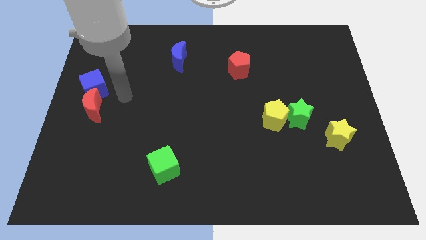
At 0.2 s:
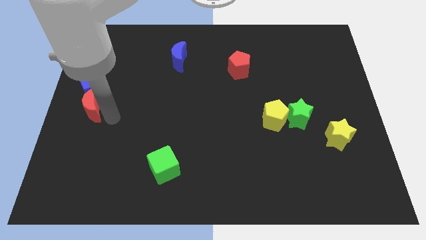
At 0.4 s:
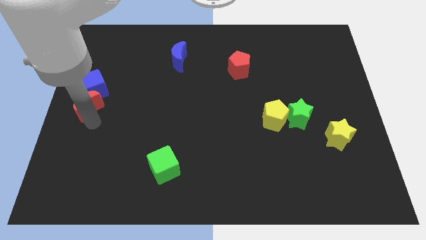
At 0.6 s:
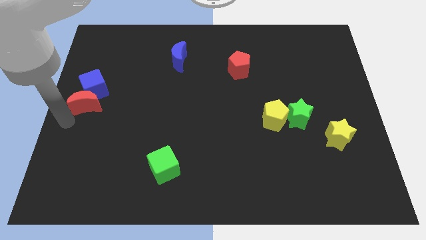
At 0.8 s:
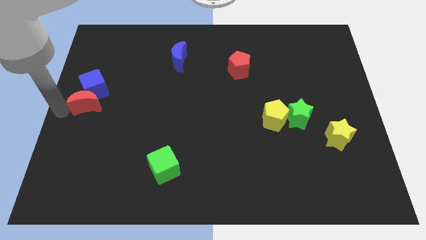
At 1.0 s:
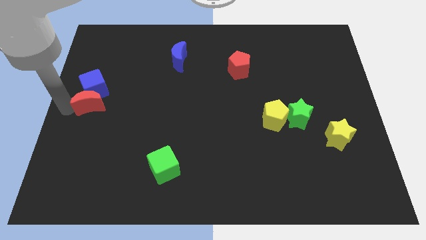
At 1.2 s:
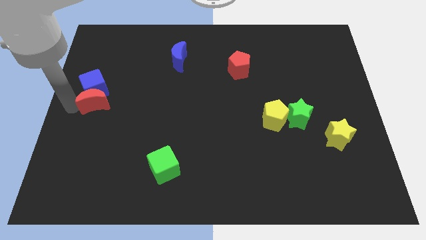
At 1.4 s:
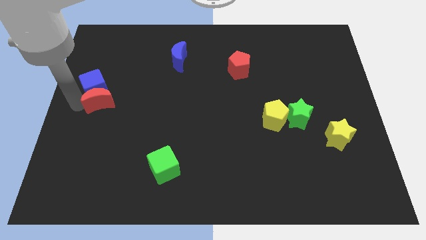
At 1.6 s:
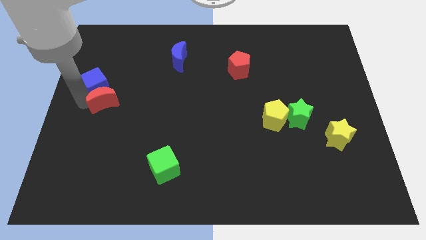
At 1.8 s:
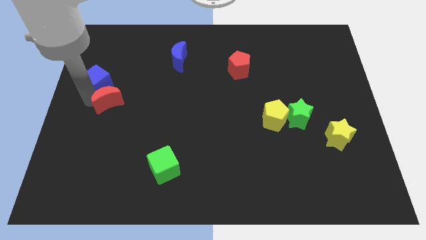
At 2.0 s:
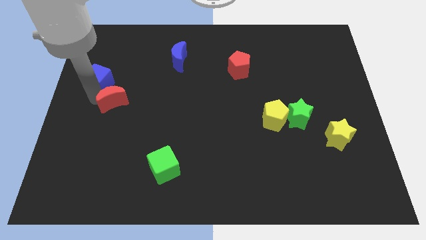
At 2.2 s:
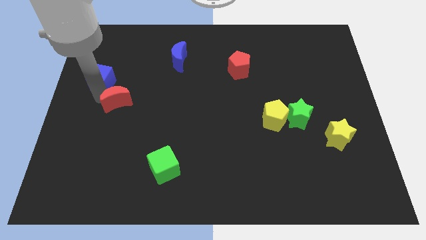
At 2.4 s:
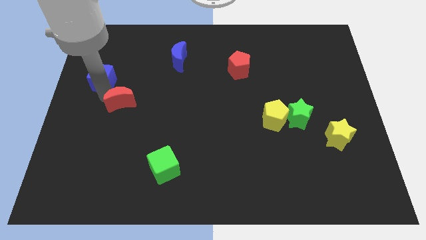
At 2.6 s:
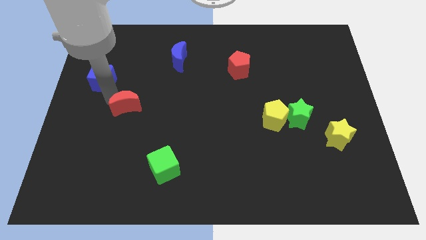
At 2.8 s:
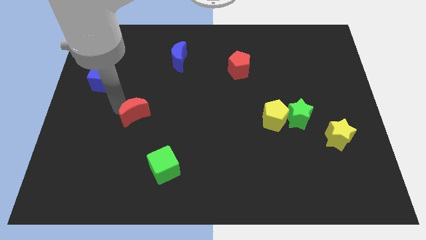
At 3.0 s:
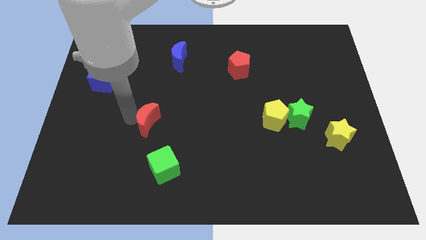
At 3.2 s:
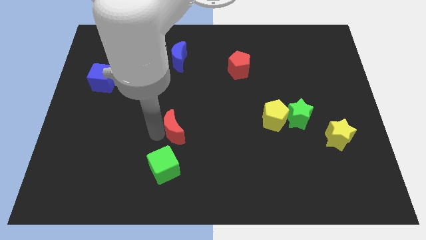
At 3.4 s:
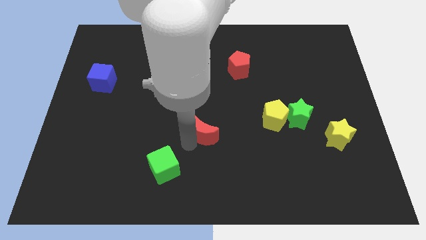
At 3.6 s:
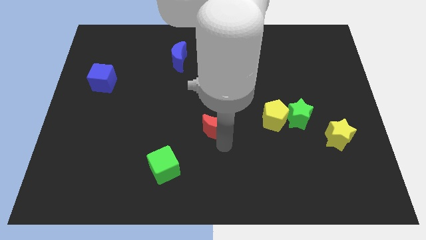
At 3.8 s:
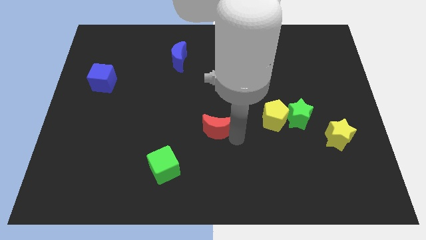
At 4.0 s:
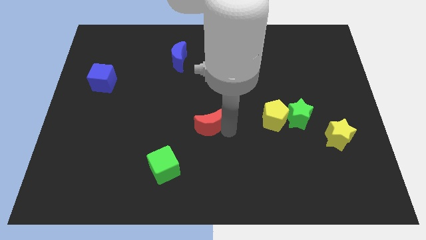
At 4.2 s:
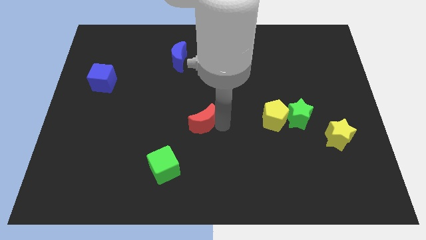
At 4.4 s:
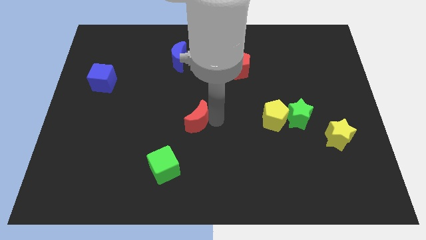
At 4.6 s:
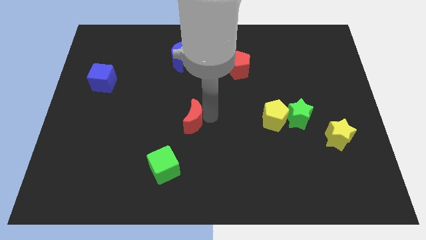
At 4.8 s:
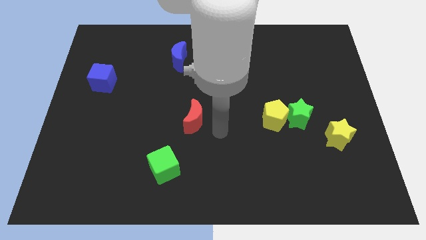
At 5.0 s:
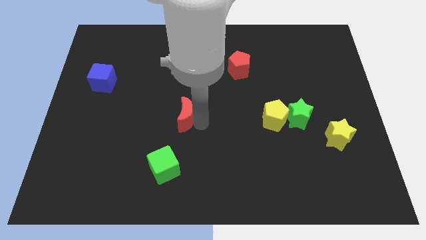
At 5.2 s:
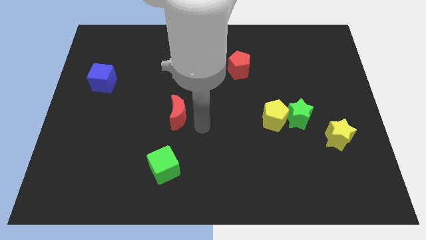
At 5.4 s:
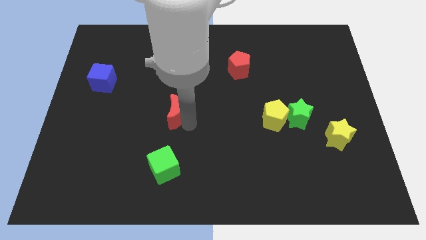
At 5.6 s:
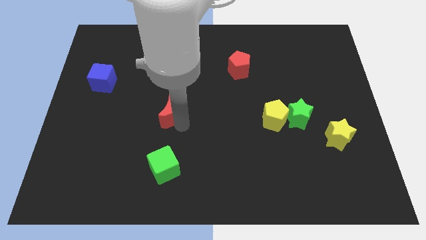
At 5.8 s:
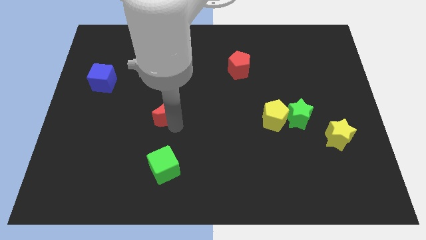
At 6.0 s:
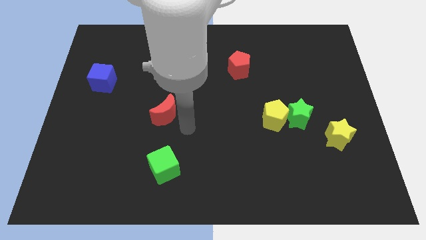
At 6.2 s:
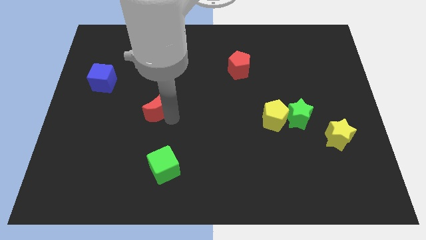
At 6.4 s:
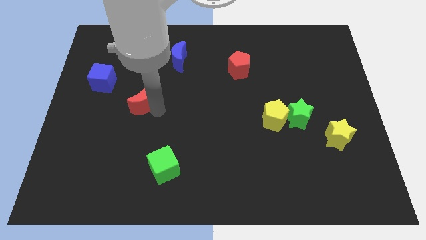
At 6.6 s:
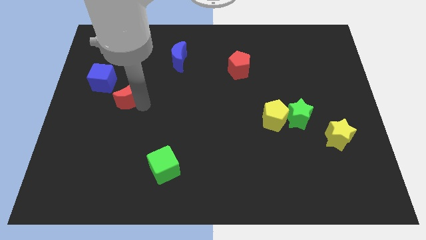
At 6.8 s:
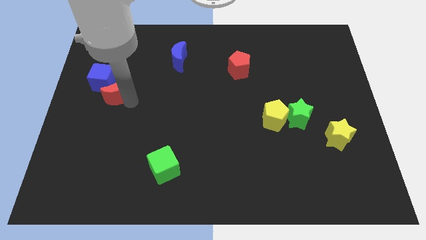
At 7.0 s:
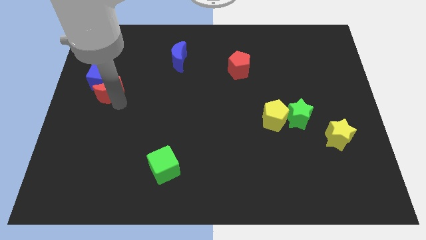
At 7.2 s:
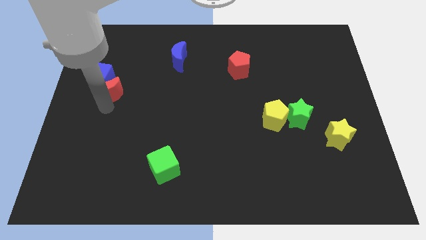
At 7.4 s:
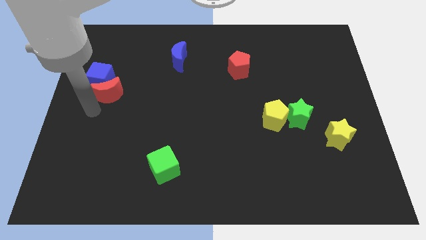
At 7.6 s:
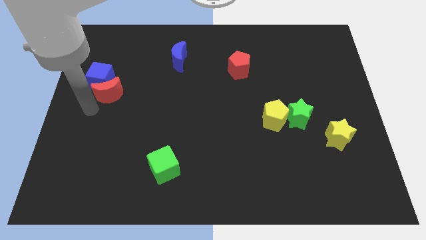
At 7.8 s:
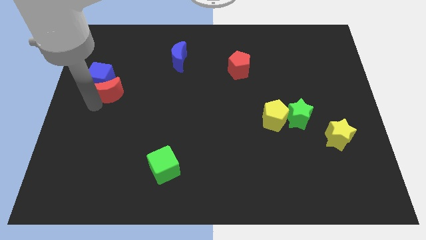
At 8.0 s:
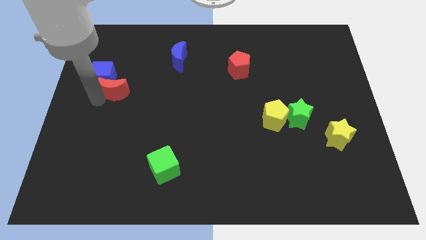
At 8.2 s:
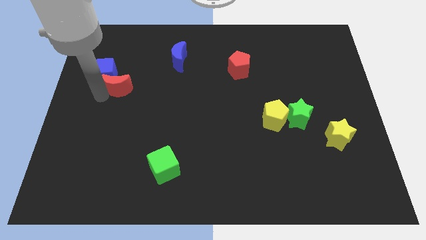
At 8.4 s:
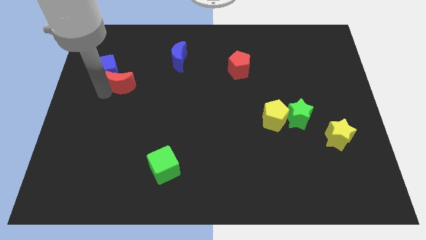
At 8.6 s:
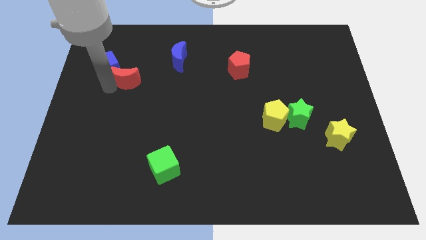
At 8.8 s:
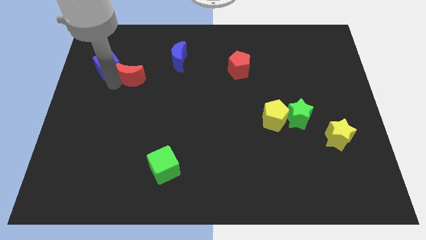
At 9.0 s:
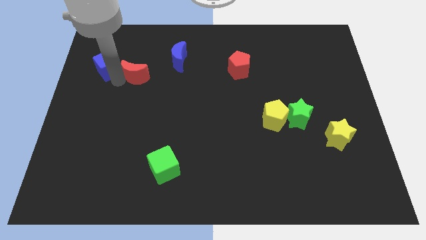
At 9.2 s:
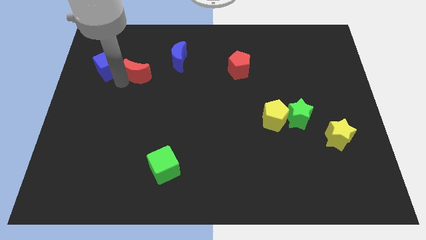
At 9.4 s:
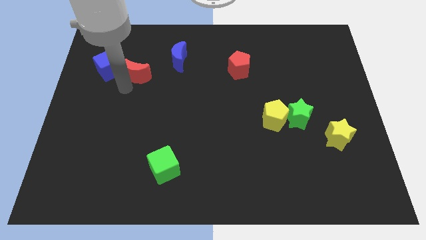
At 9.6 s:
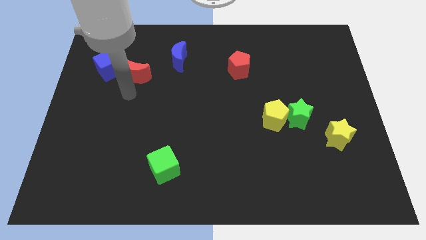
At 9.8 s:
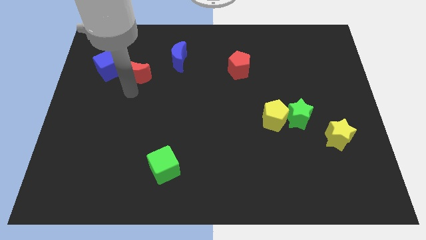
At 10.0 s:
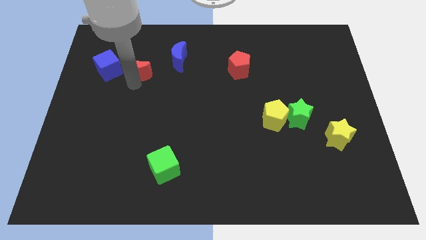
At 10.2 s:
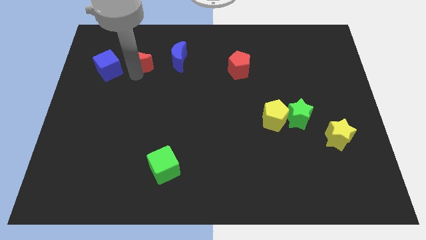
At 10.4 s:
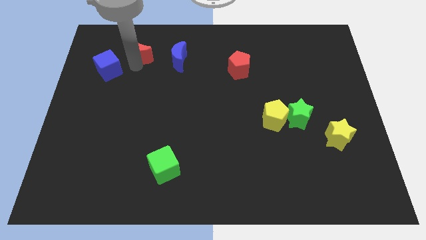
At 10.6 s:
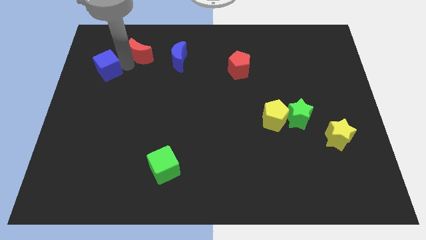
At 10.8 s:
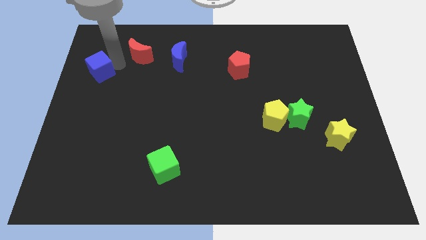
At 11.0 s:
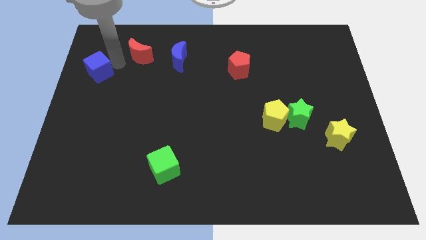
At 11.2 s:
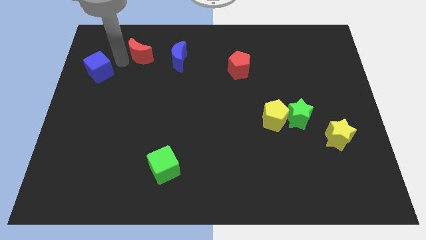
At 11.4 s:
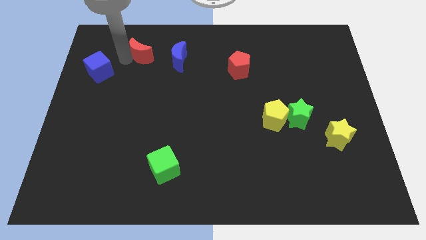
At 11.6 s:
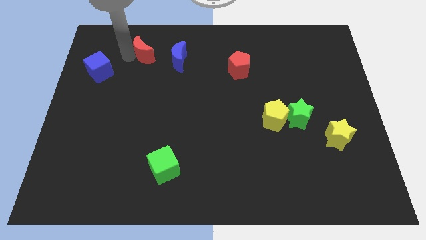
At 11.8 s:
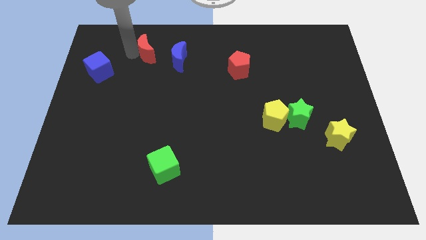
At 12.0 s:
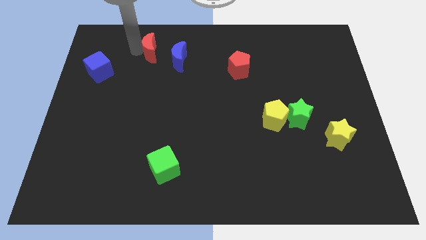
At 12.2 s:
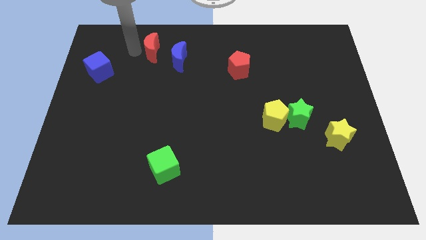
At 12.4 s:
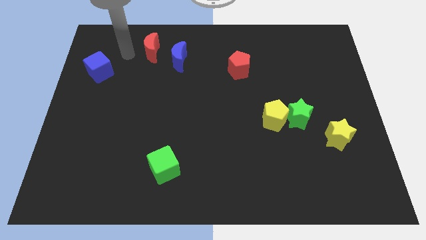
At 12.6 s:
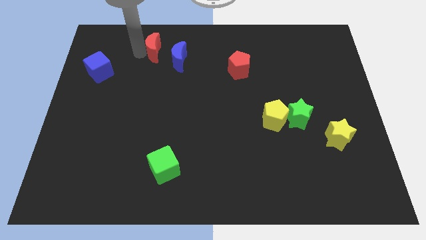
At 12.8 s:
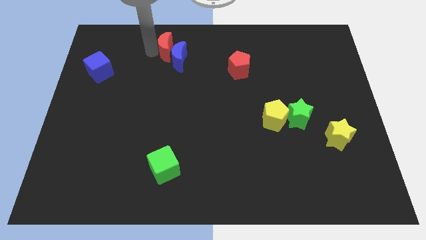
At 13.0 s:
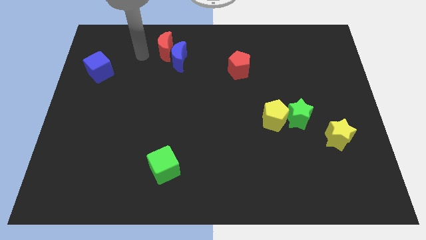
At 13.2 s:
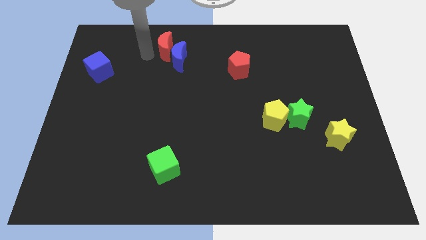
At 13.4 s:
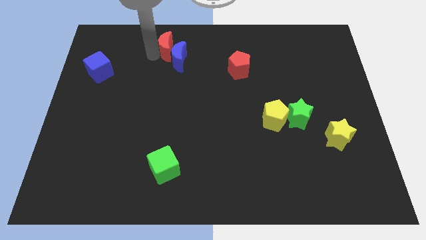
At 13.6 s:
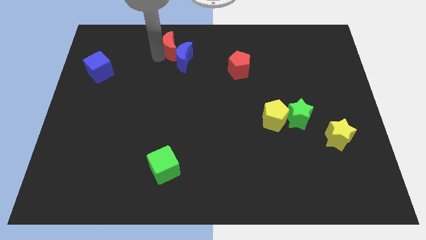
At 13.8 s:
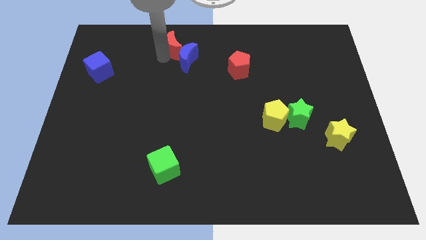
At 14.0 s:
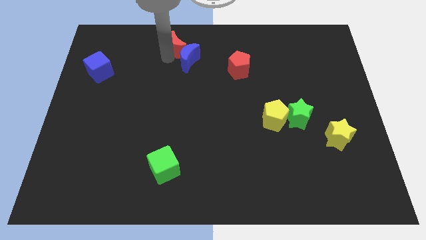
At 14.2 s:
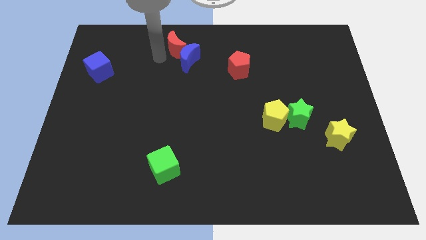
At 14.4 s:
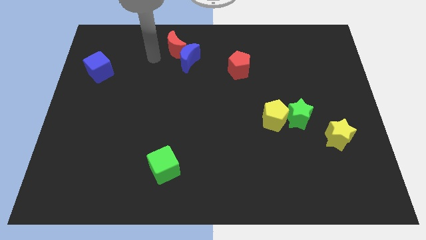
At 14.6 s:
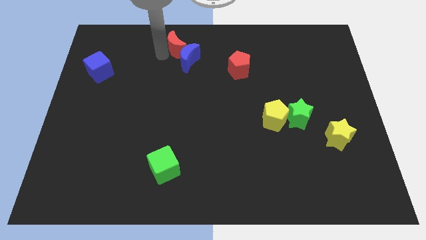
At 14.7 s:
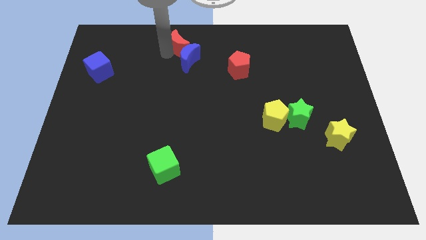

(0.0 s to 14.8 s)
put the red moon to the top

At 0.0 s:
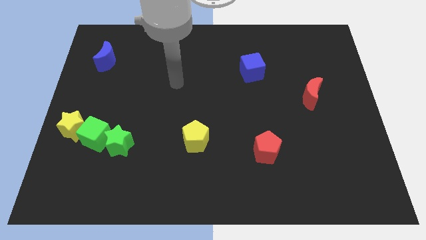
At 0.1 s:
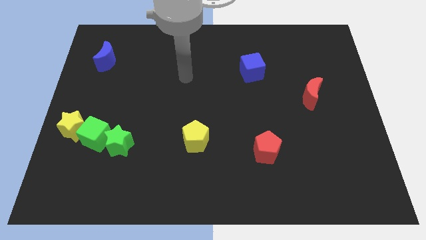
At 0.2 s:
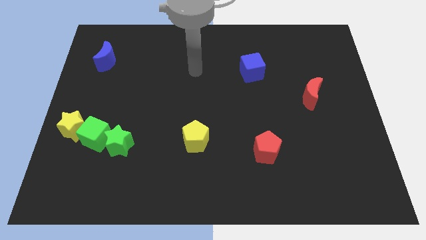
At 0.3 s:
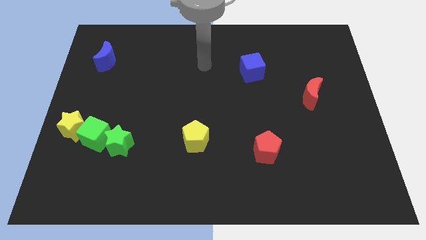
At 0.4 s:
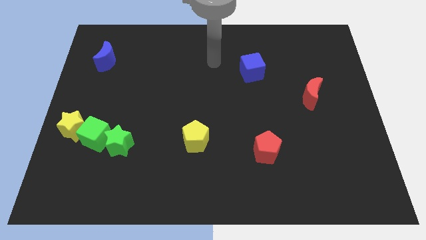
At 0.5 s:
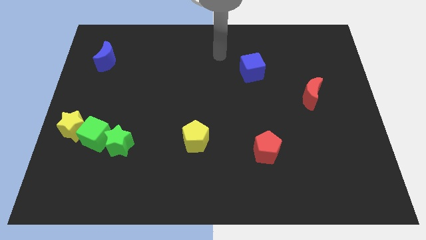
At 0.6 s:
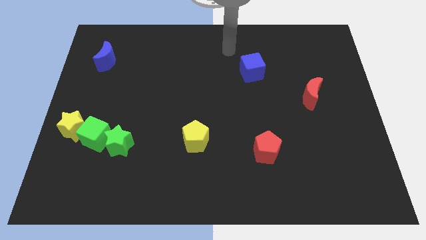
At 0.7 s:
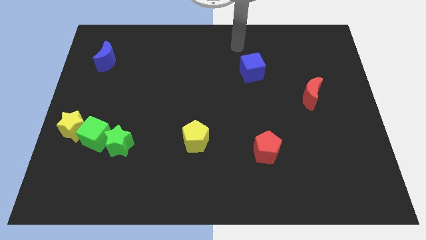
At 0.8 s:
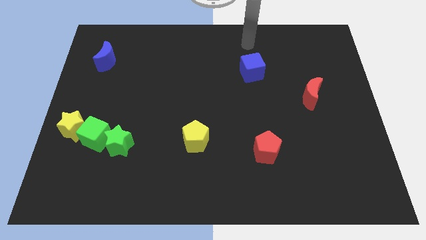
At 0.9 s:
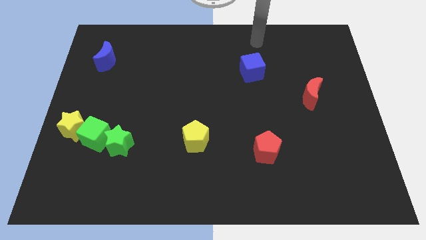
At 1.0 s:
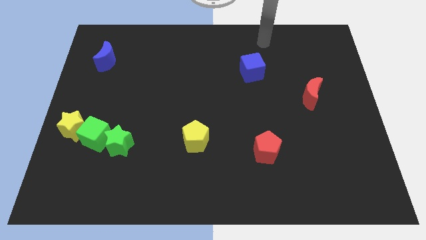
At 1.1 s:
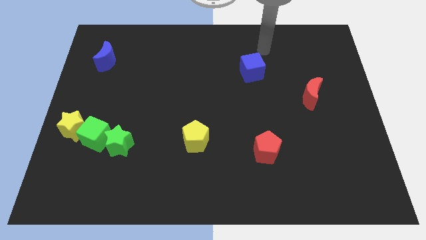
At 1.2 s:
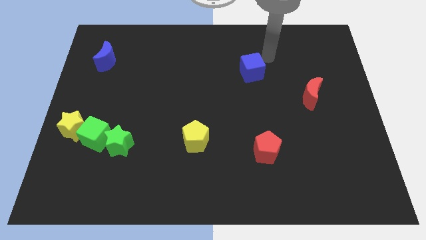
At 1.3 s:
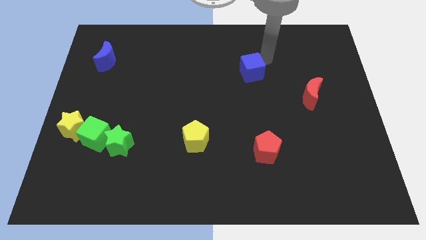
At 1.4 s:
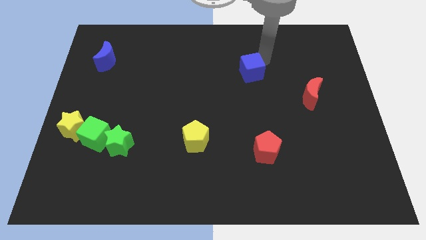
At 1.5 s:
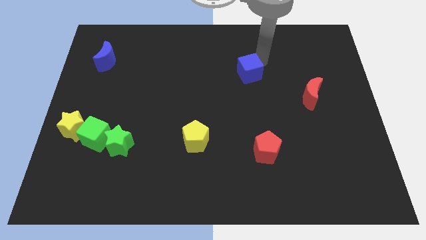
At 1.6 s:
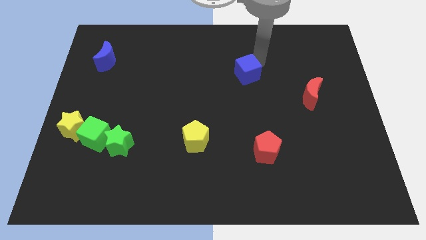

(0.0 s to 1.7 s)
slide the blue cube to the middle of the board
